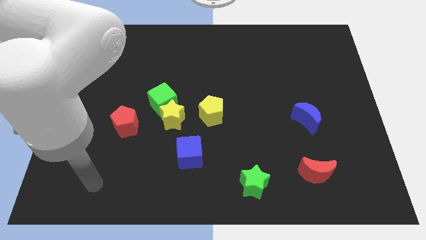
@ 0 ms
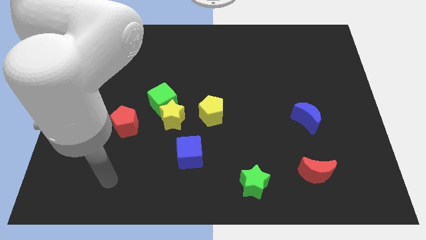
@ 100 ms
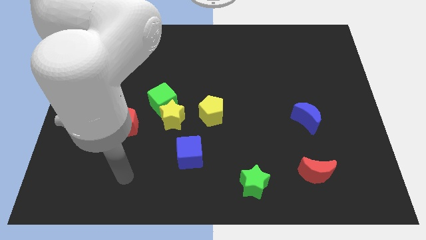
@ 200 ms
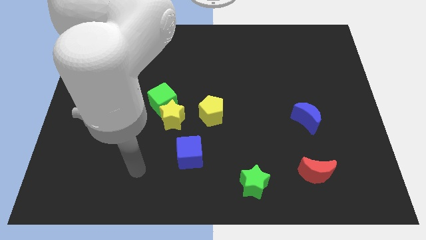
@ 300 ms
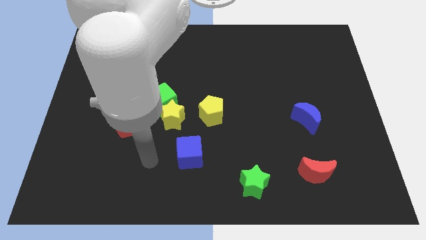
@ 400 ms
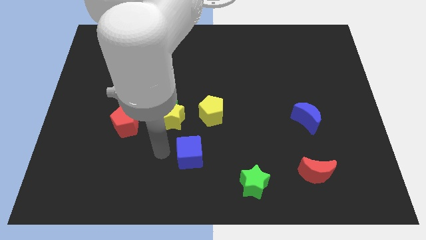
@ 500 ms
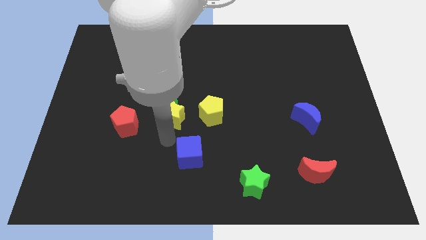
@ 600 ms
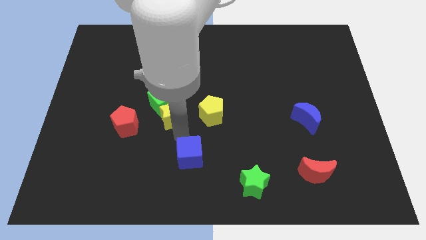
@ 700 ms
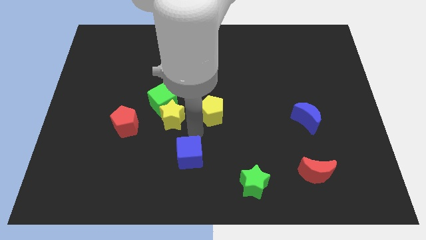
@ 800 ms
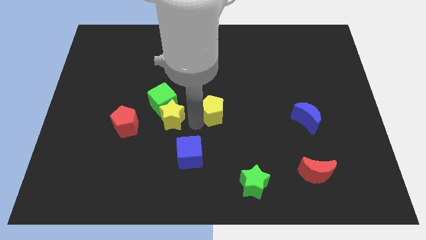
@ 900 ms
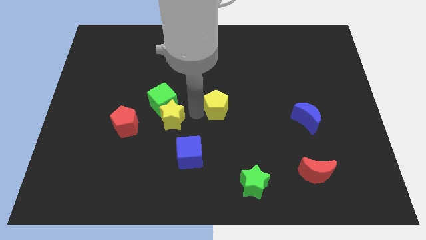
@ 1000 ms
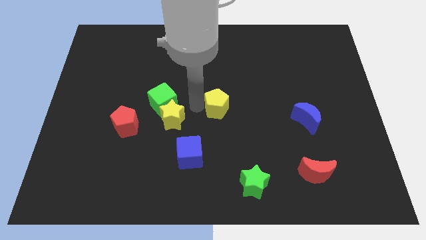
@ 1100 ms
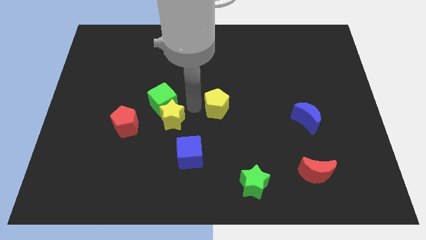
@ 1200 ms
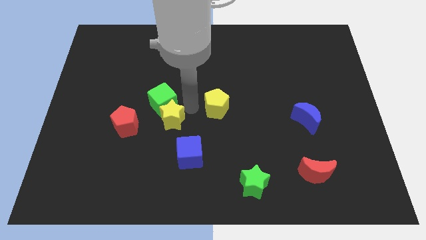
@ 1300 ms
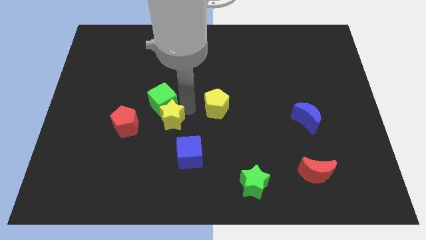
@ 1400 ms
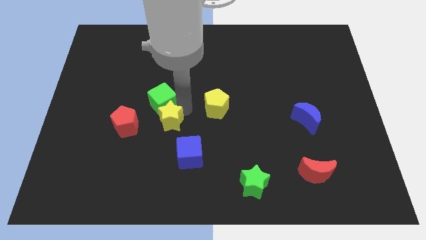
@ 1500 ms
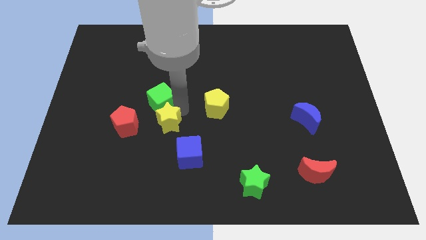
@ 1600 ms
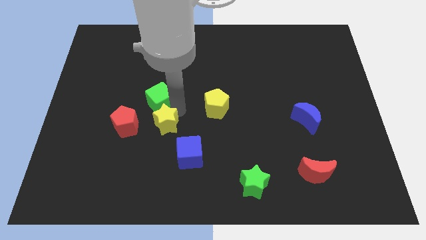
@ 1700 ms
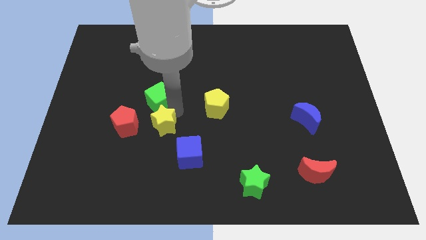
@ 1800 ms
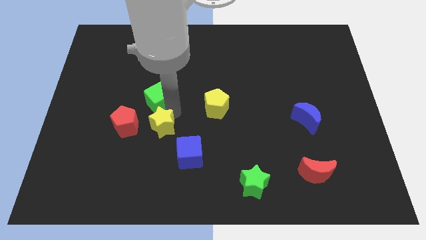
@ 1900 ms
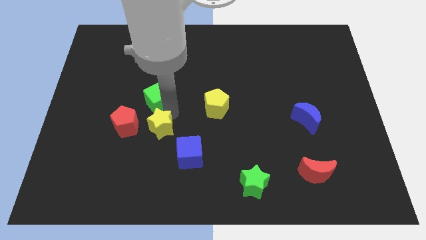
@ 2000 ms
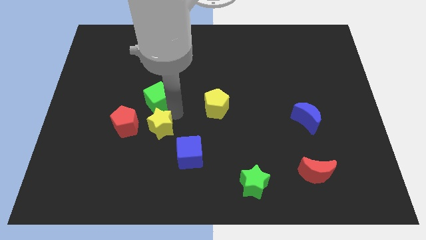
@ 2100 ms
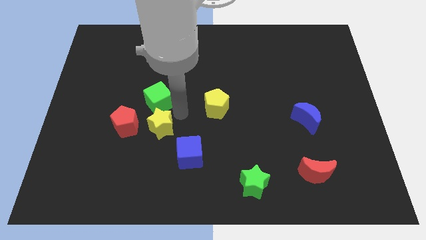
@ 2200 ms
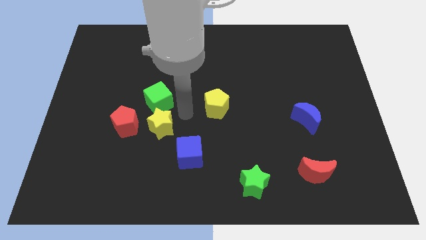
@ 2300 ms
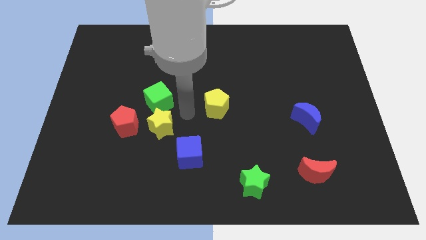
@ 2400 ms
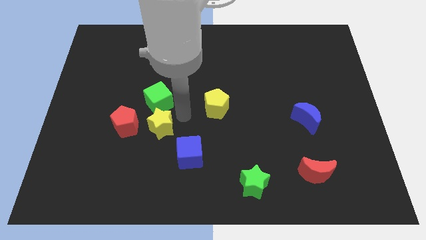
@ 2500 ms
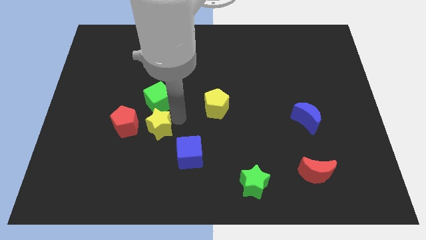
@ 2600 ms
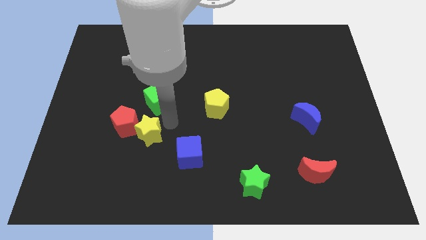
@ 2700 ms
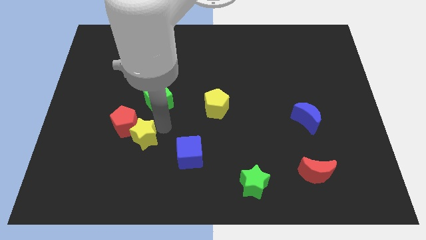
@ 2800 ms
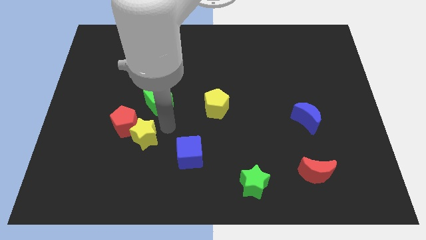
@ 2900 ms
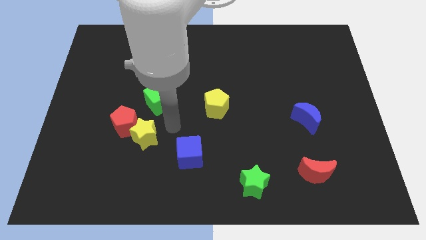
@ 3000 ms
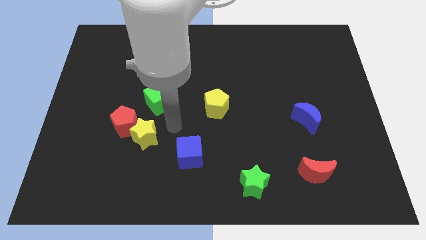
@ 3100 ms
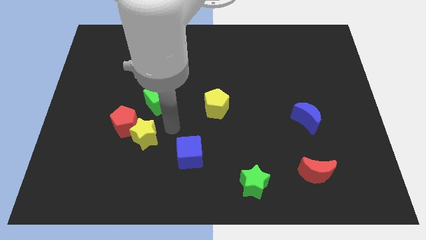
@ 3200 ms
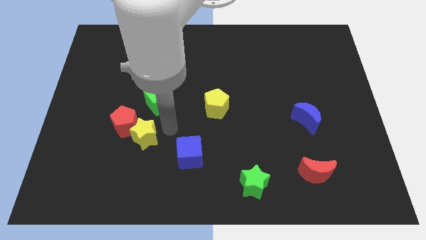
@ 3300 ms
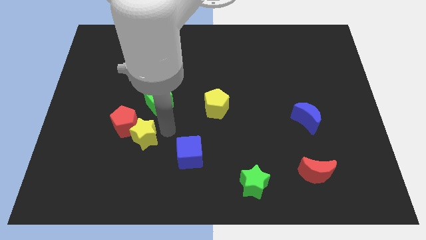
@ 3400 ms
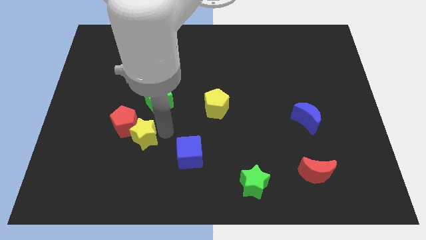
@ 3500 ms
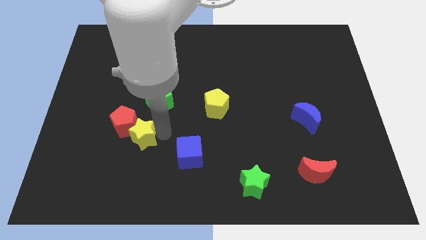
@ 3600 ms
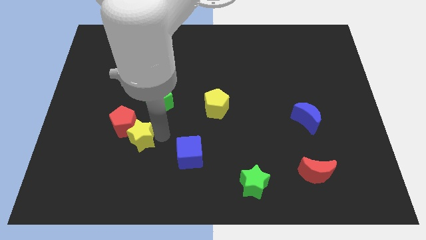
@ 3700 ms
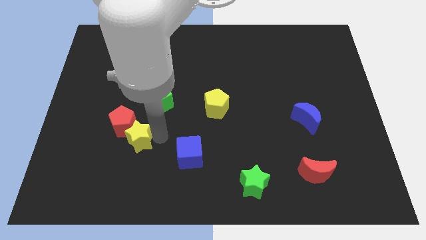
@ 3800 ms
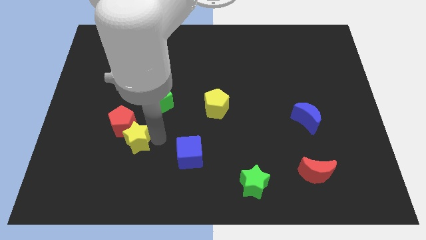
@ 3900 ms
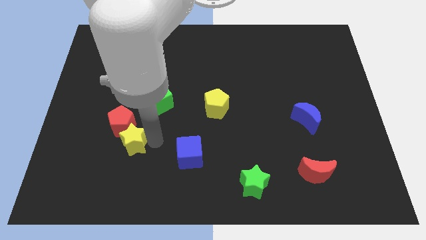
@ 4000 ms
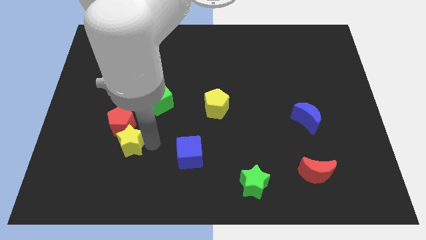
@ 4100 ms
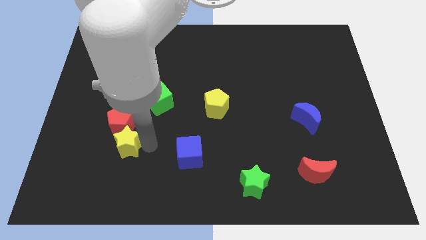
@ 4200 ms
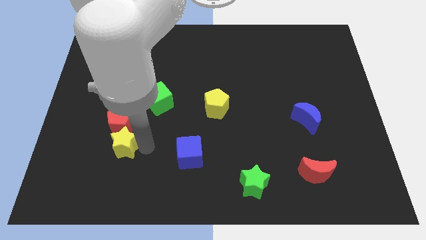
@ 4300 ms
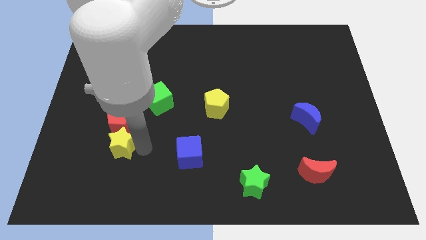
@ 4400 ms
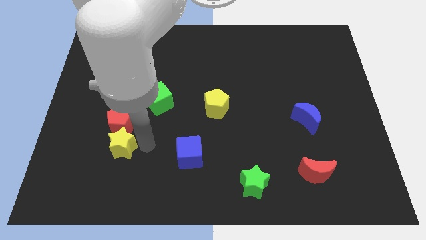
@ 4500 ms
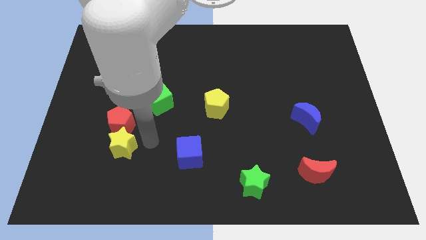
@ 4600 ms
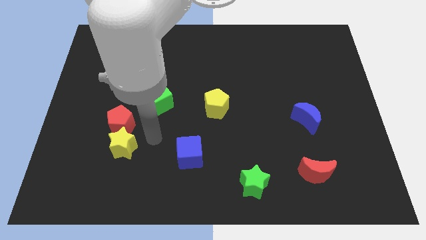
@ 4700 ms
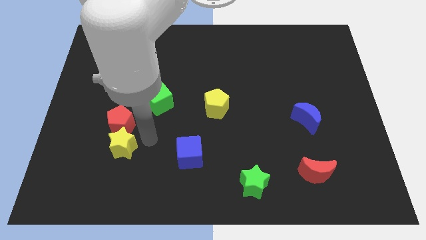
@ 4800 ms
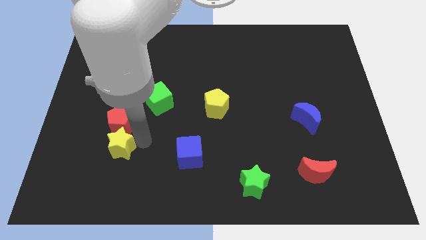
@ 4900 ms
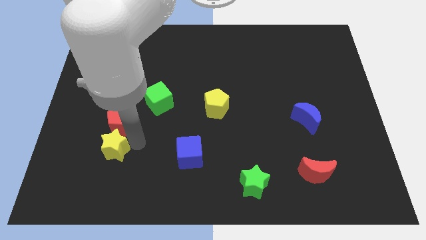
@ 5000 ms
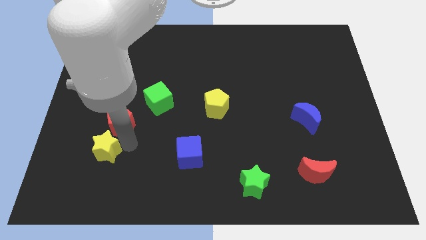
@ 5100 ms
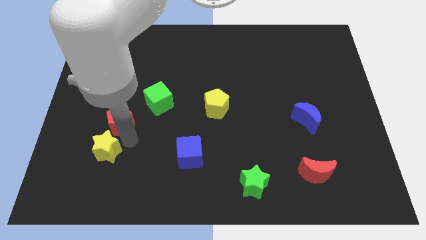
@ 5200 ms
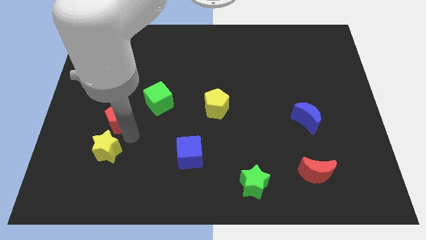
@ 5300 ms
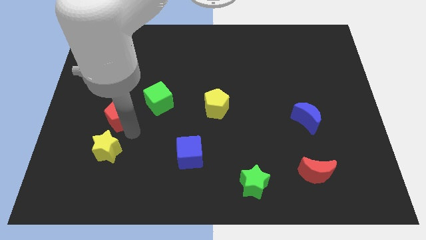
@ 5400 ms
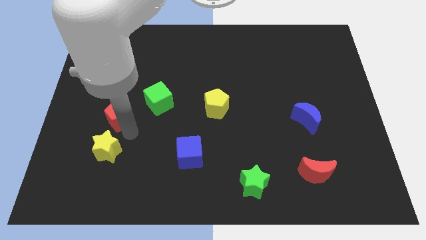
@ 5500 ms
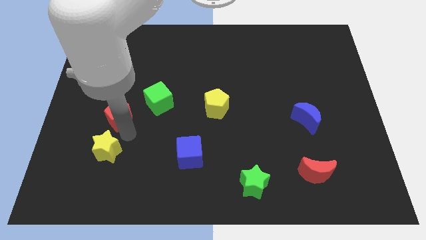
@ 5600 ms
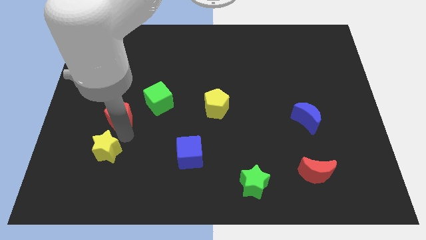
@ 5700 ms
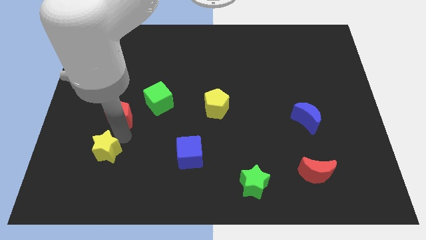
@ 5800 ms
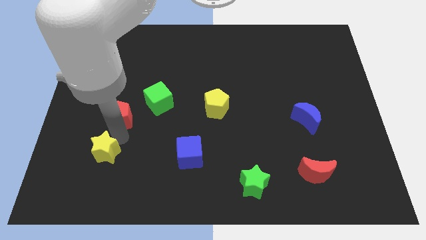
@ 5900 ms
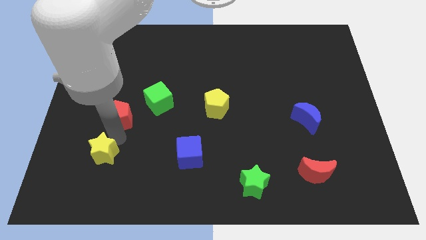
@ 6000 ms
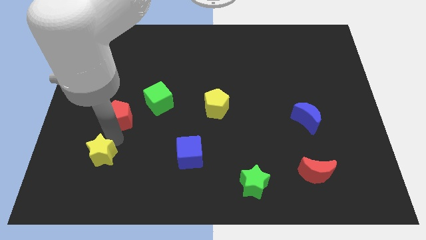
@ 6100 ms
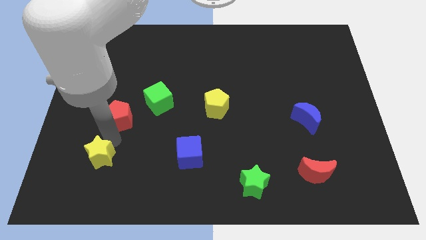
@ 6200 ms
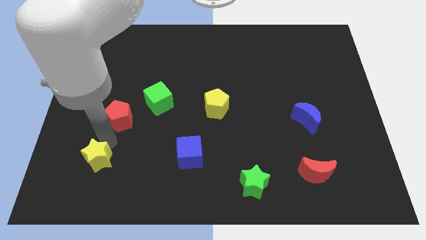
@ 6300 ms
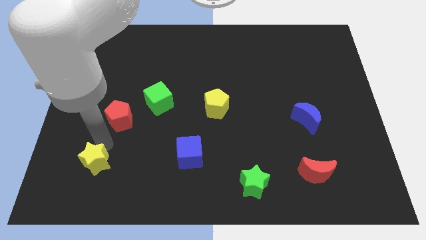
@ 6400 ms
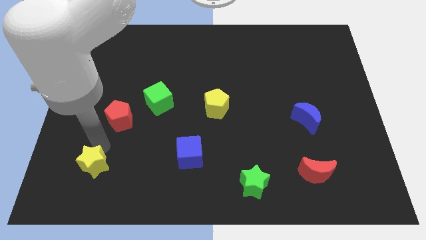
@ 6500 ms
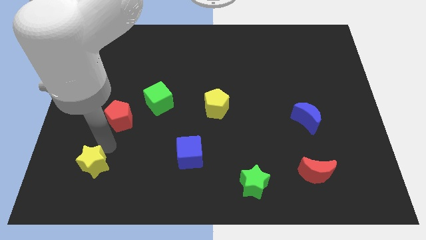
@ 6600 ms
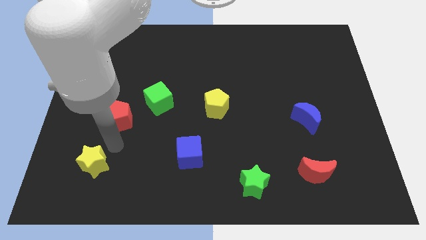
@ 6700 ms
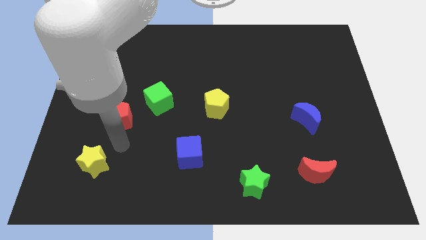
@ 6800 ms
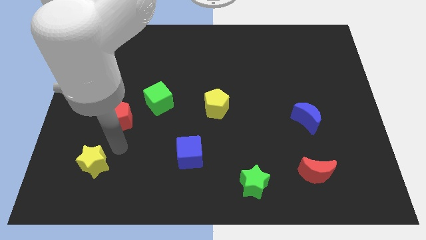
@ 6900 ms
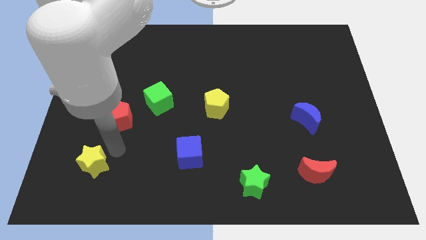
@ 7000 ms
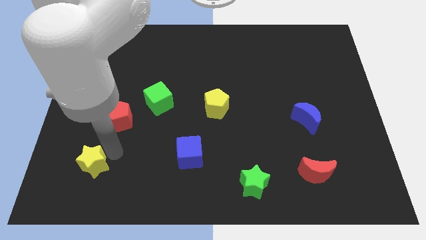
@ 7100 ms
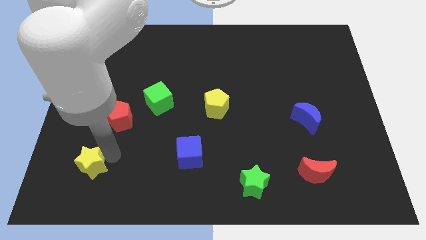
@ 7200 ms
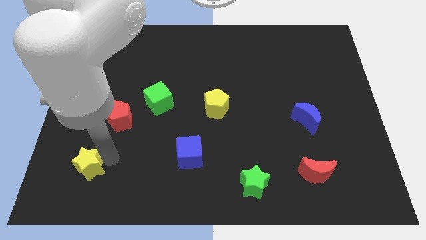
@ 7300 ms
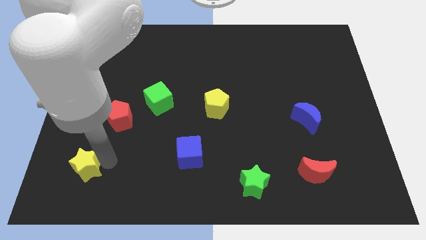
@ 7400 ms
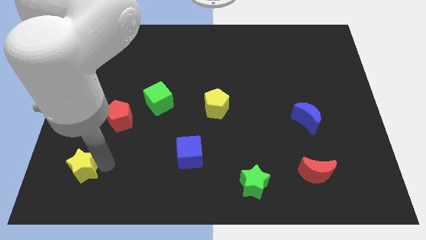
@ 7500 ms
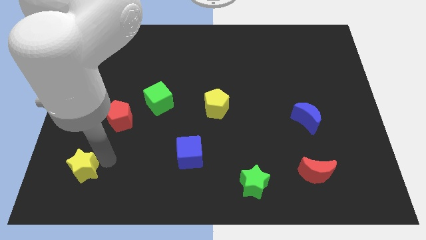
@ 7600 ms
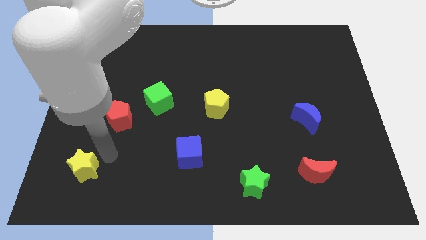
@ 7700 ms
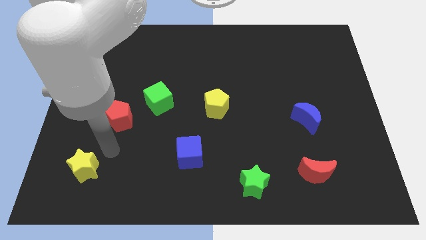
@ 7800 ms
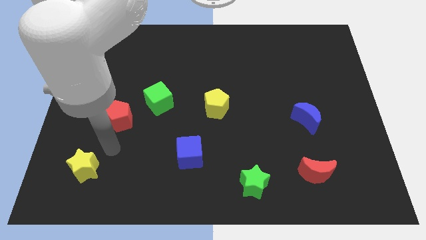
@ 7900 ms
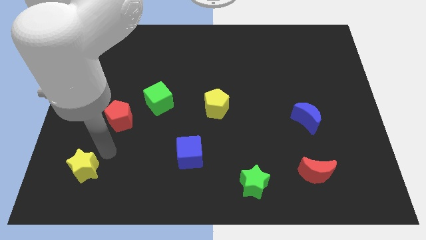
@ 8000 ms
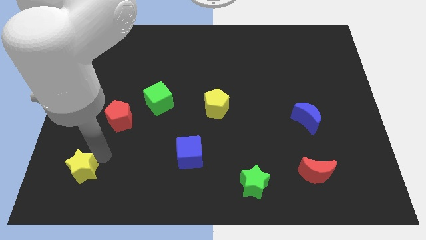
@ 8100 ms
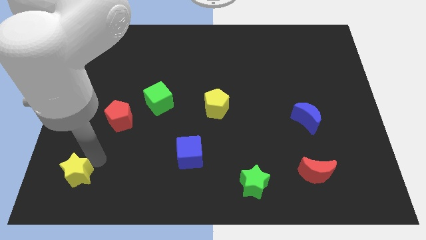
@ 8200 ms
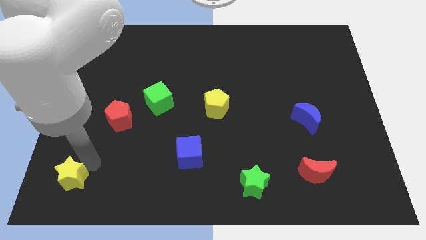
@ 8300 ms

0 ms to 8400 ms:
put the yellow star to the bottom left corner
